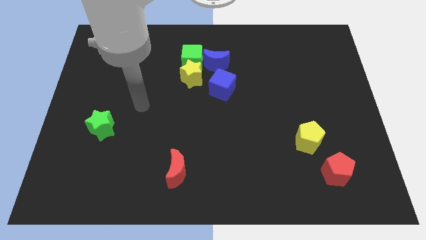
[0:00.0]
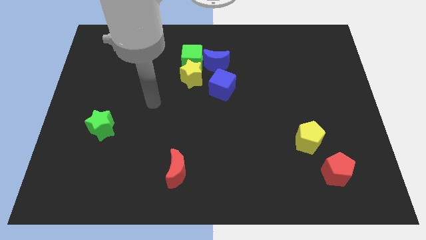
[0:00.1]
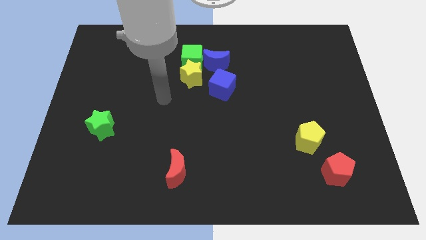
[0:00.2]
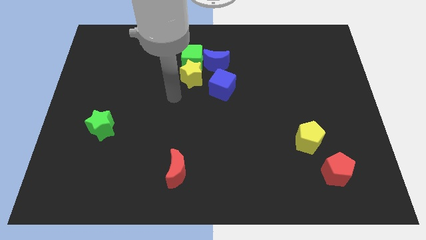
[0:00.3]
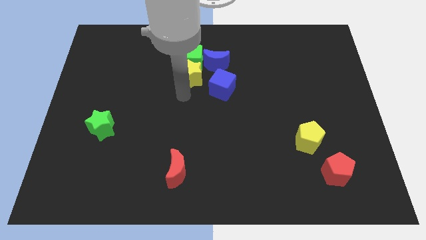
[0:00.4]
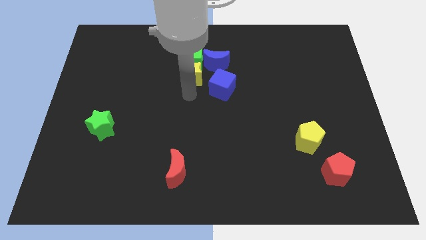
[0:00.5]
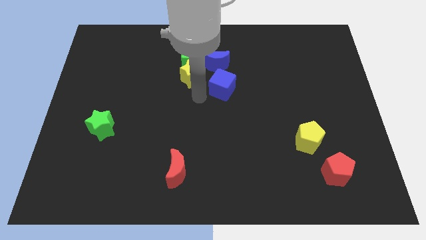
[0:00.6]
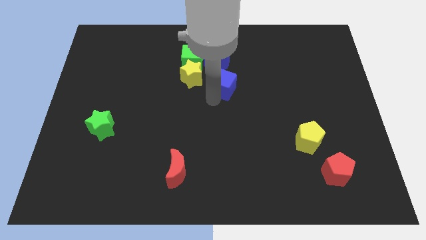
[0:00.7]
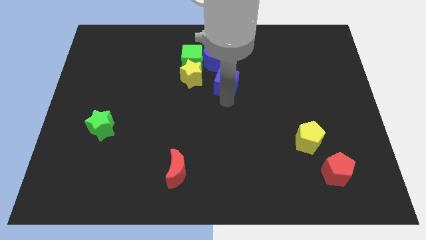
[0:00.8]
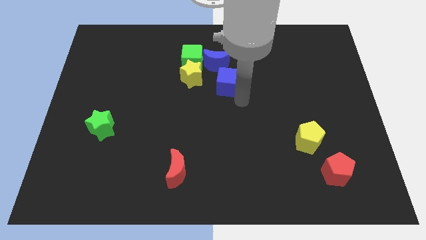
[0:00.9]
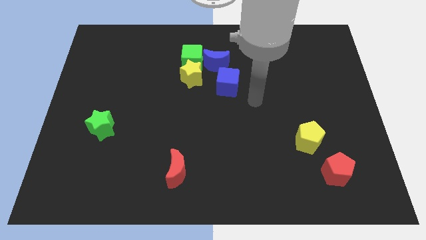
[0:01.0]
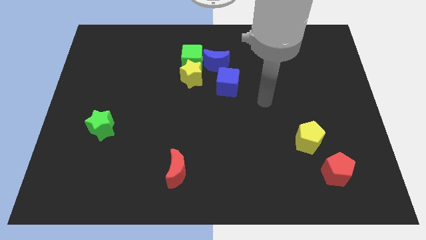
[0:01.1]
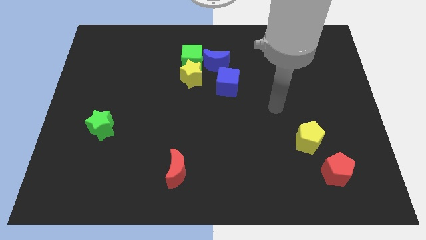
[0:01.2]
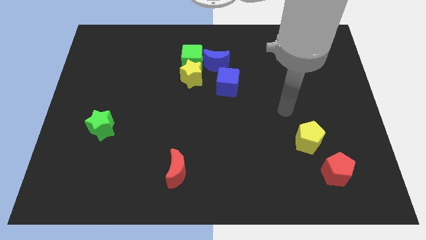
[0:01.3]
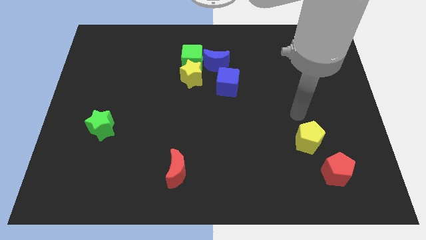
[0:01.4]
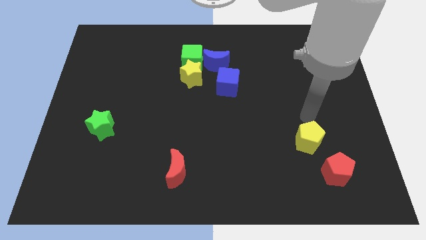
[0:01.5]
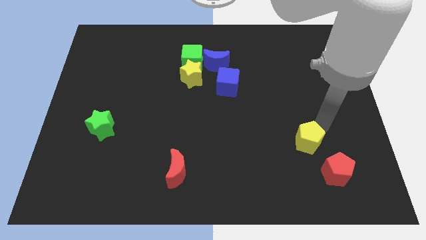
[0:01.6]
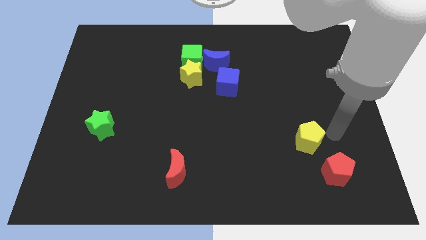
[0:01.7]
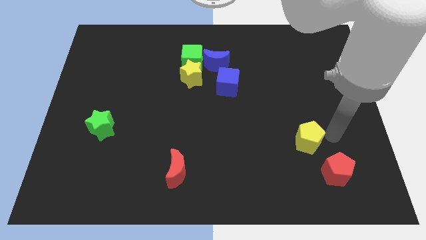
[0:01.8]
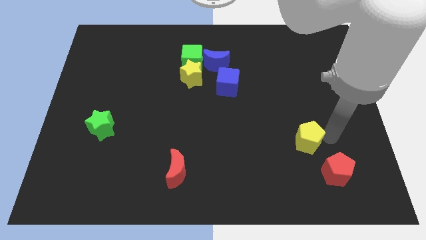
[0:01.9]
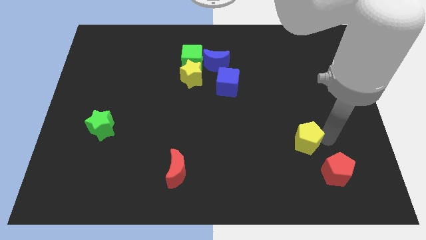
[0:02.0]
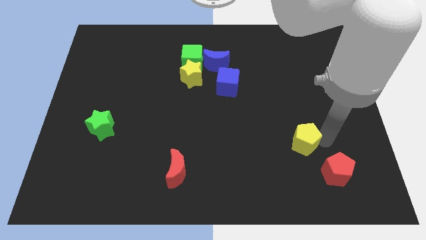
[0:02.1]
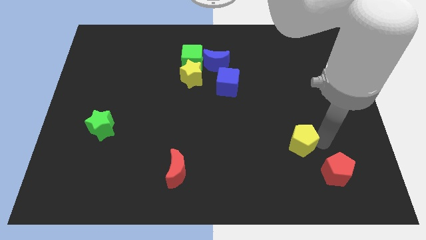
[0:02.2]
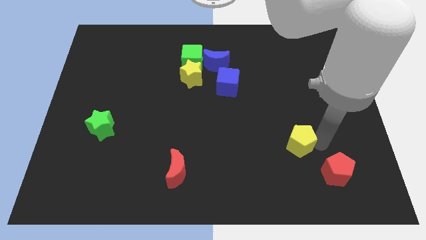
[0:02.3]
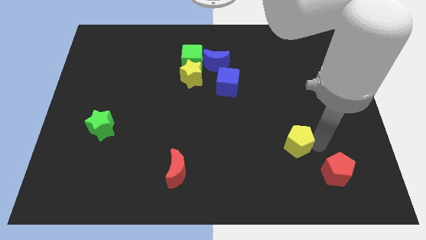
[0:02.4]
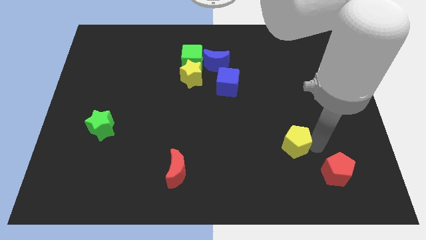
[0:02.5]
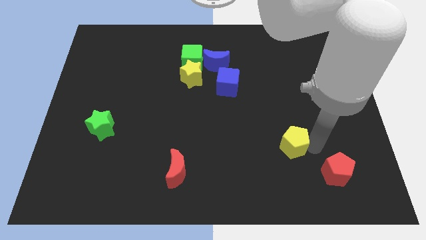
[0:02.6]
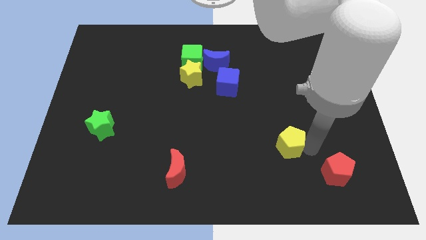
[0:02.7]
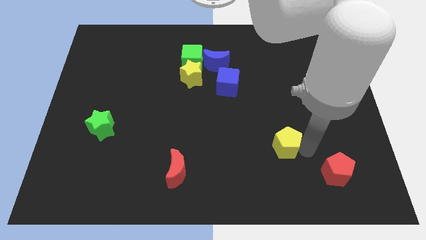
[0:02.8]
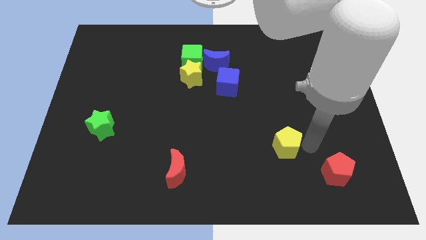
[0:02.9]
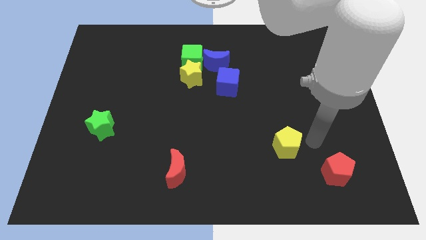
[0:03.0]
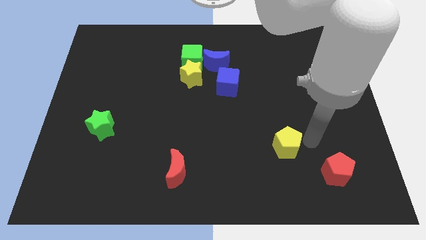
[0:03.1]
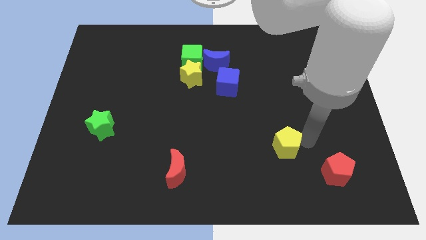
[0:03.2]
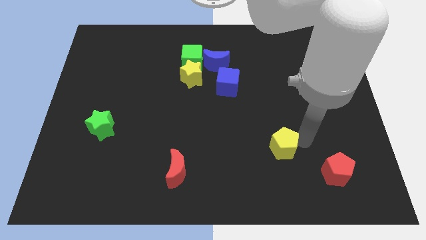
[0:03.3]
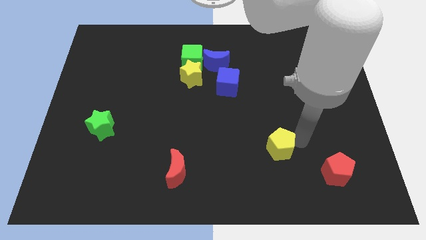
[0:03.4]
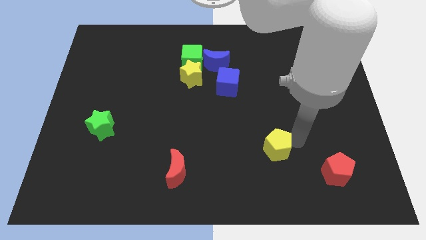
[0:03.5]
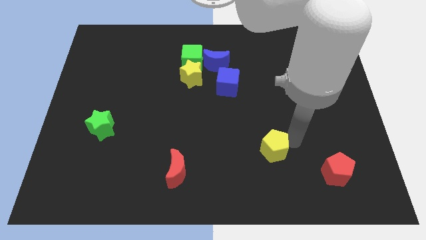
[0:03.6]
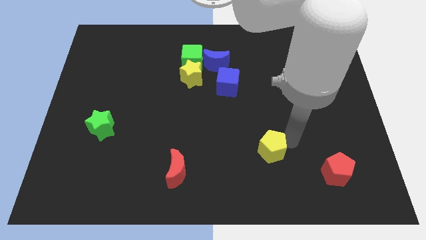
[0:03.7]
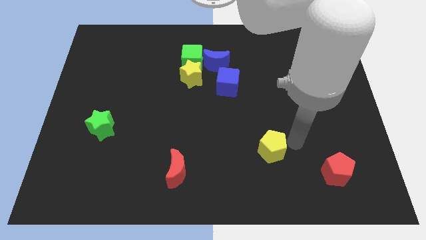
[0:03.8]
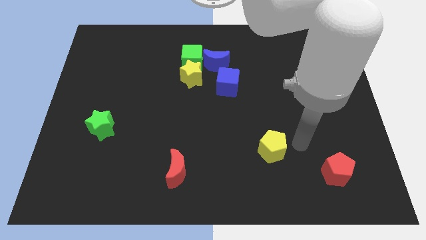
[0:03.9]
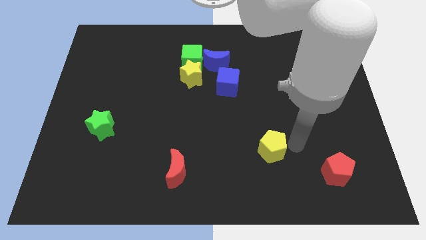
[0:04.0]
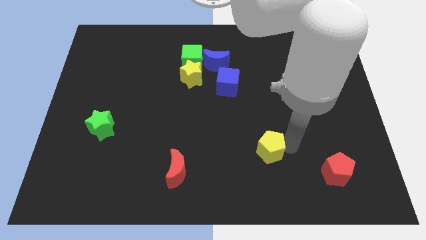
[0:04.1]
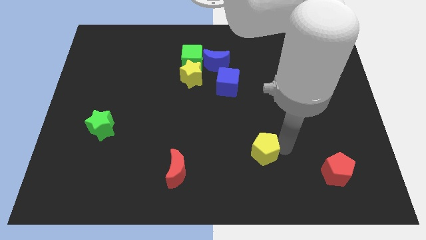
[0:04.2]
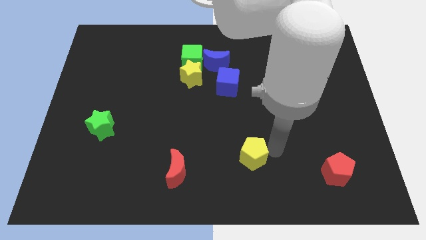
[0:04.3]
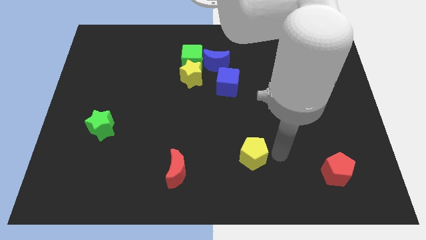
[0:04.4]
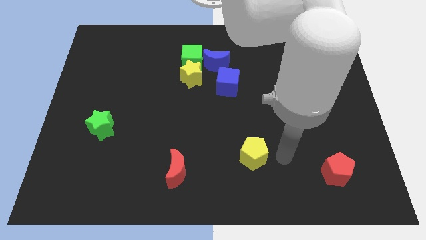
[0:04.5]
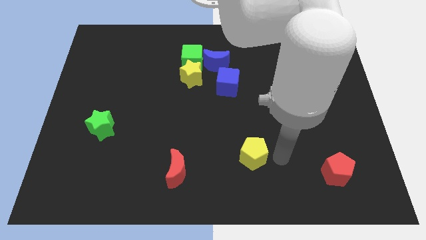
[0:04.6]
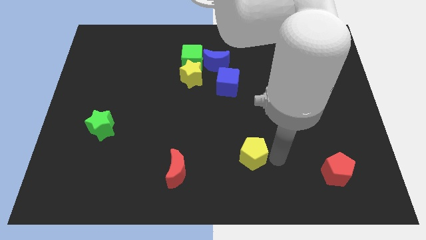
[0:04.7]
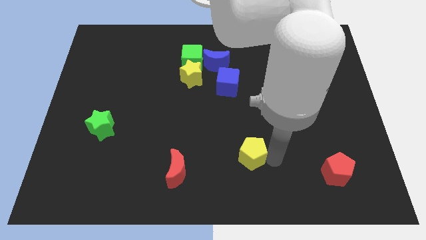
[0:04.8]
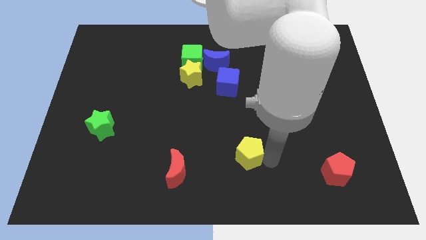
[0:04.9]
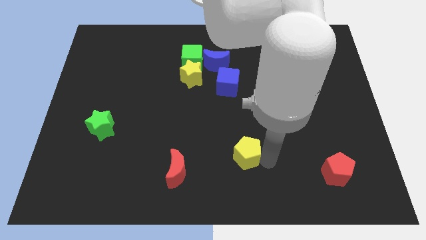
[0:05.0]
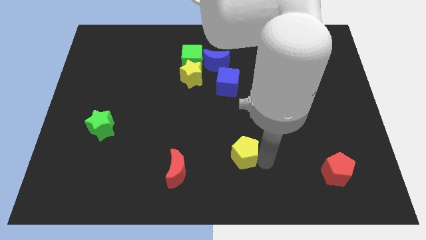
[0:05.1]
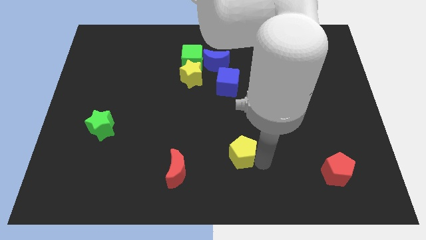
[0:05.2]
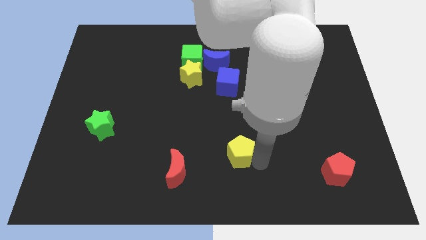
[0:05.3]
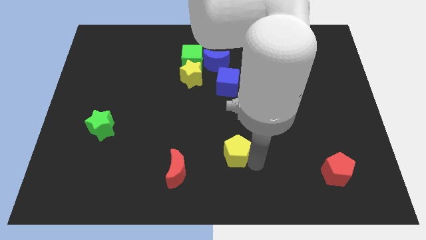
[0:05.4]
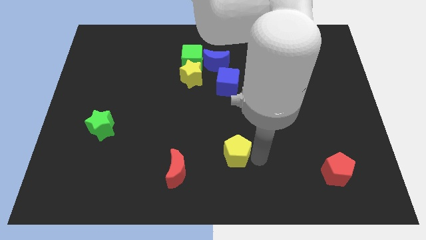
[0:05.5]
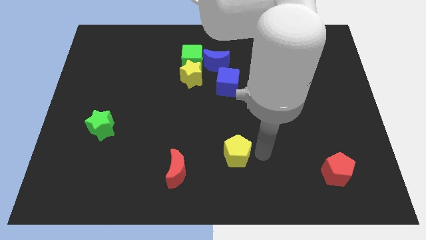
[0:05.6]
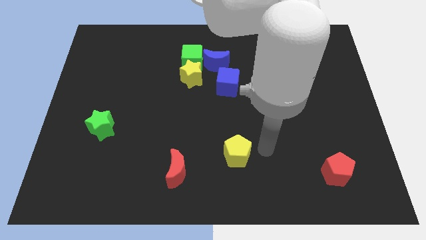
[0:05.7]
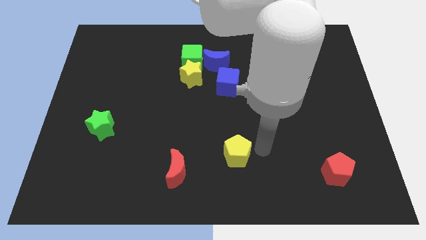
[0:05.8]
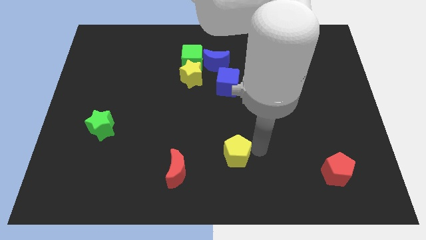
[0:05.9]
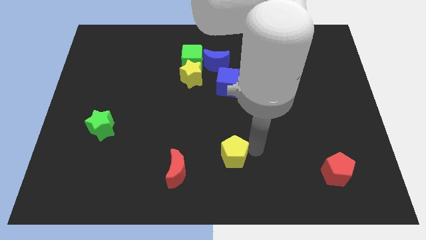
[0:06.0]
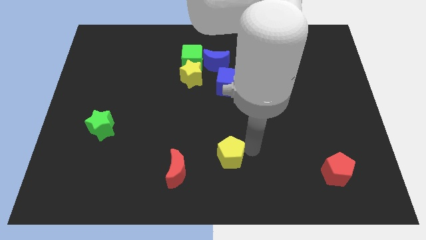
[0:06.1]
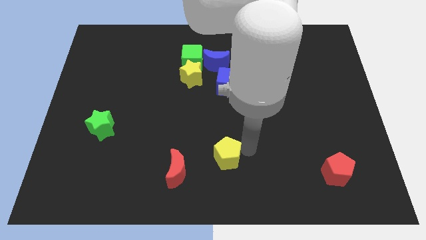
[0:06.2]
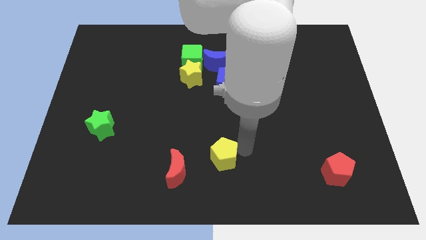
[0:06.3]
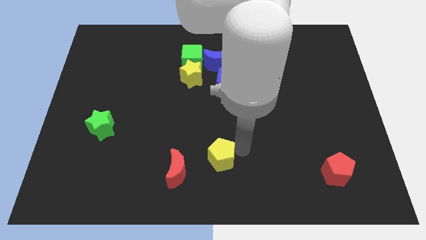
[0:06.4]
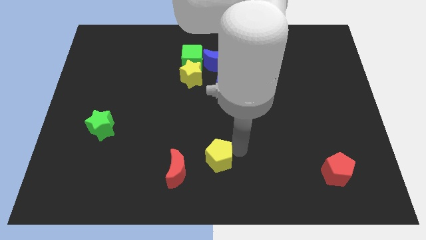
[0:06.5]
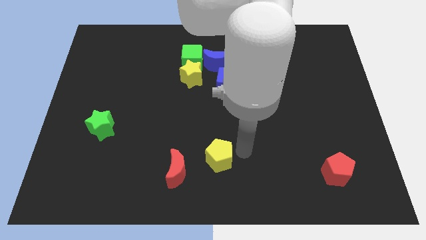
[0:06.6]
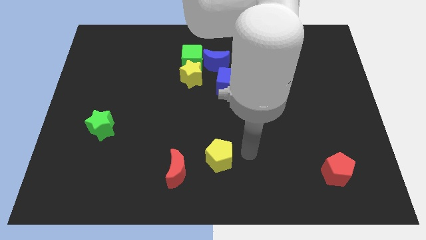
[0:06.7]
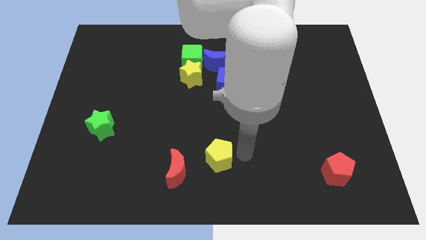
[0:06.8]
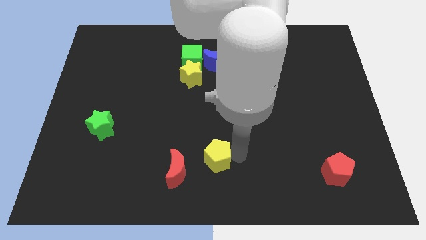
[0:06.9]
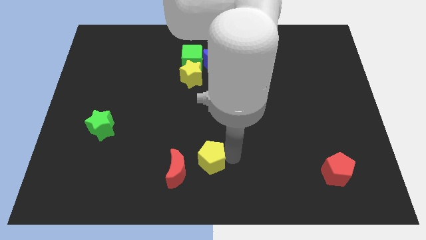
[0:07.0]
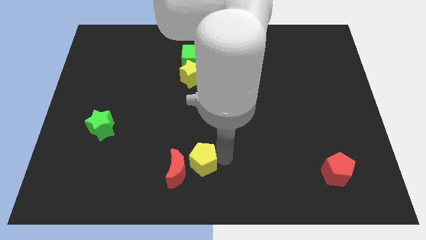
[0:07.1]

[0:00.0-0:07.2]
move the yellow pentagon next to the red moon

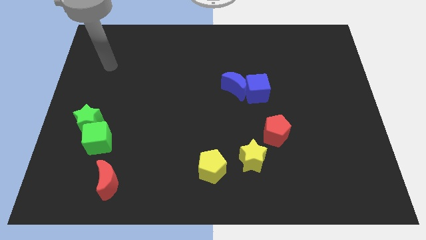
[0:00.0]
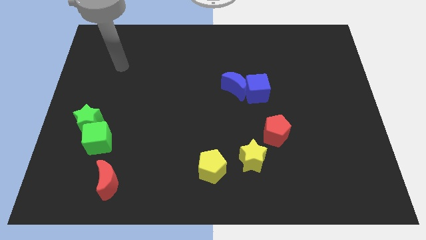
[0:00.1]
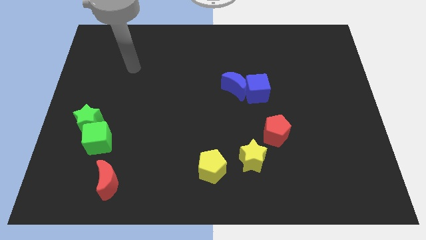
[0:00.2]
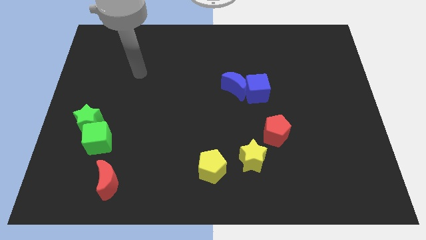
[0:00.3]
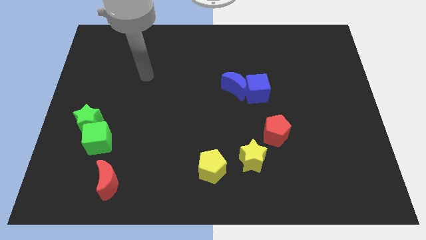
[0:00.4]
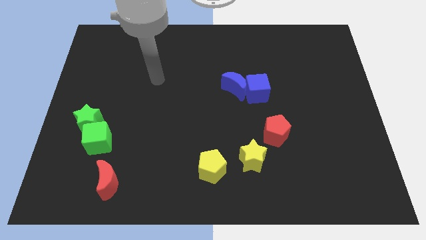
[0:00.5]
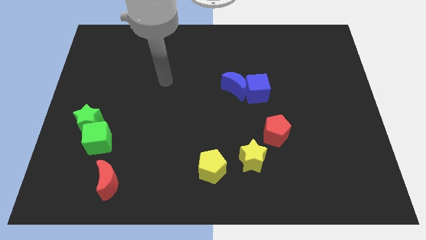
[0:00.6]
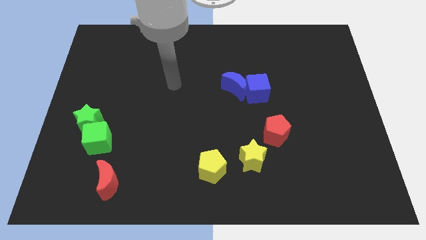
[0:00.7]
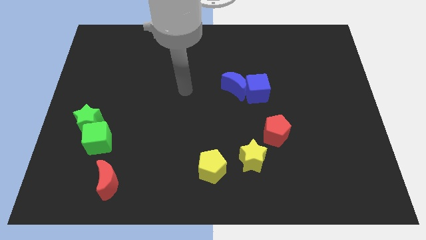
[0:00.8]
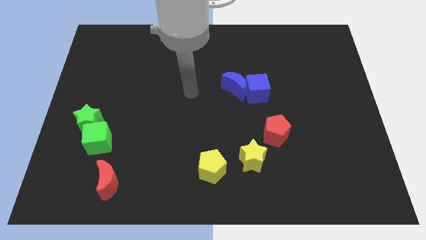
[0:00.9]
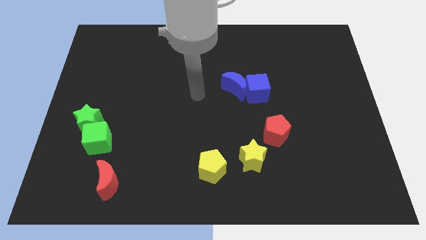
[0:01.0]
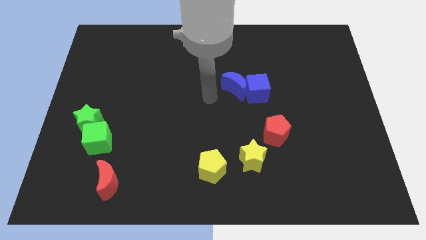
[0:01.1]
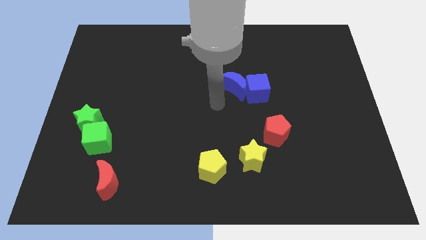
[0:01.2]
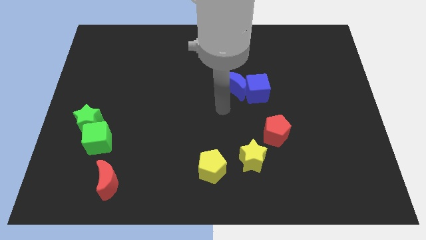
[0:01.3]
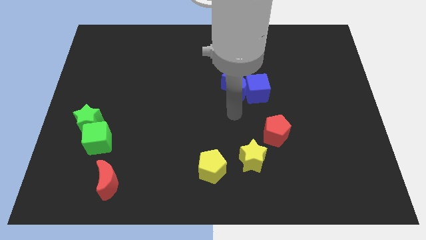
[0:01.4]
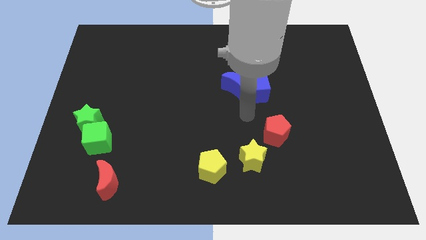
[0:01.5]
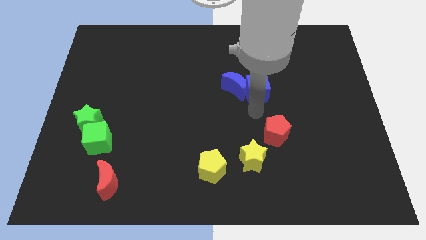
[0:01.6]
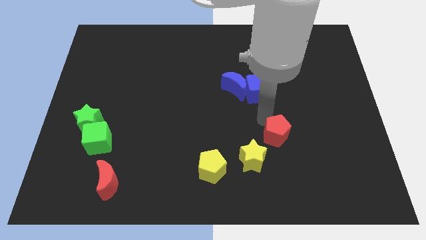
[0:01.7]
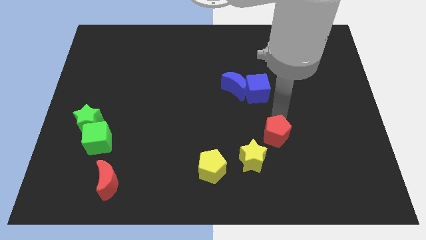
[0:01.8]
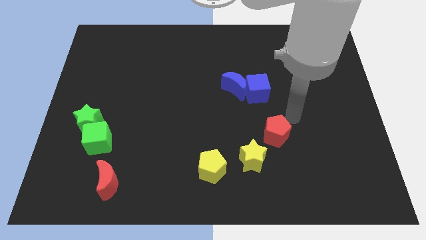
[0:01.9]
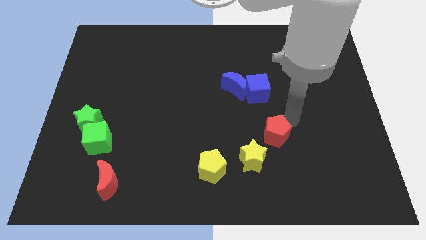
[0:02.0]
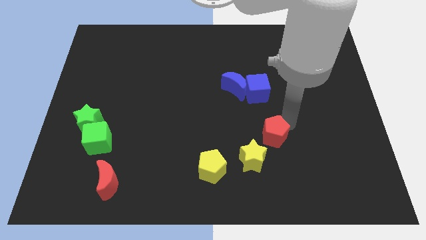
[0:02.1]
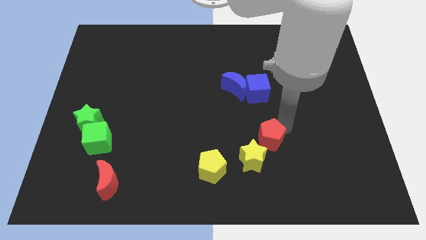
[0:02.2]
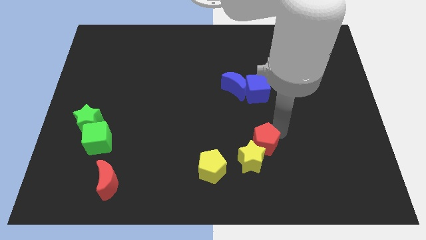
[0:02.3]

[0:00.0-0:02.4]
put the red pentagon next to the yellow star
